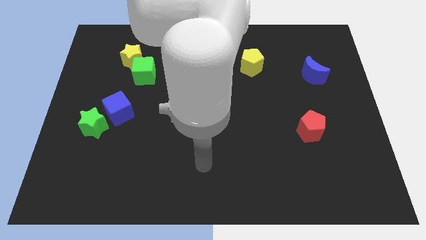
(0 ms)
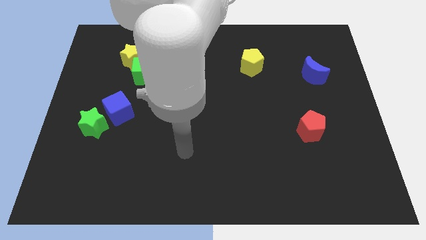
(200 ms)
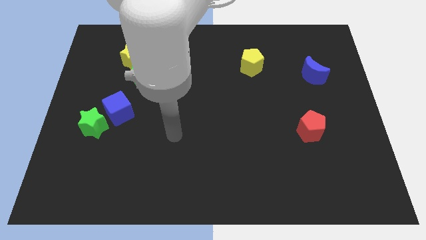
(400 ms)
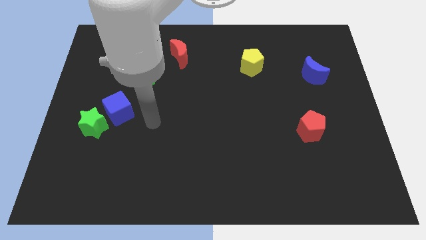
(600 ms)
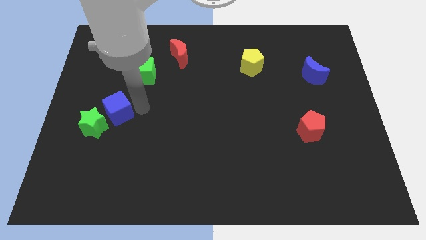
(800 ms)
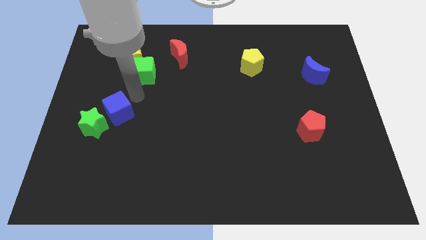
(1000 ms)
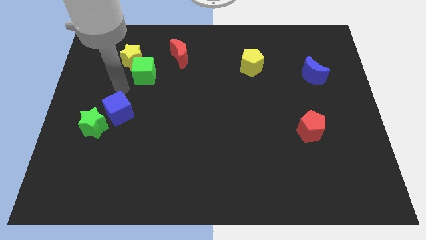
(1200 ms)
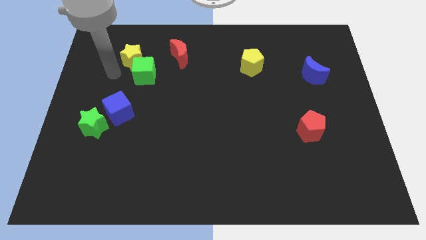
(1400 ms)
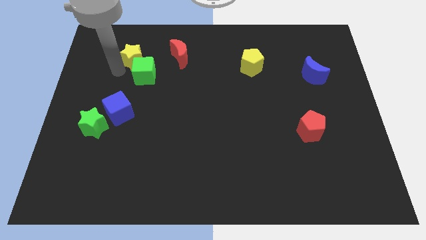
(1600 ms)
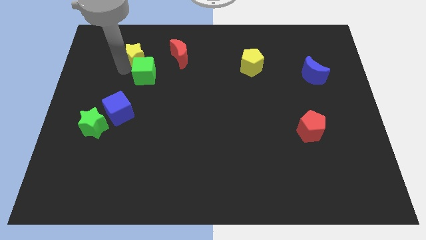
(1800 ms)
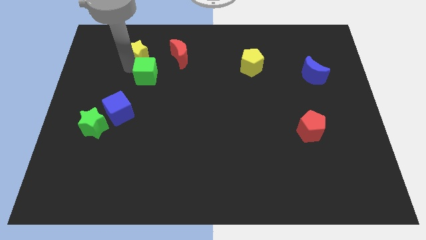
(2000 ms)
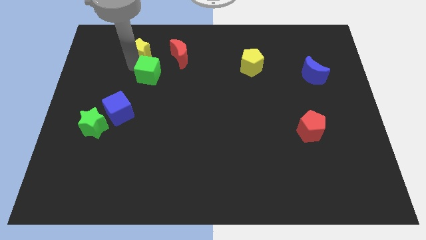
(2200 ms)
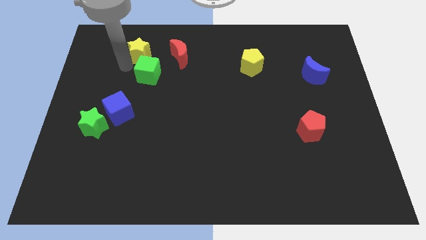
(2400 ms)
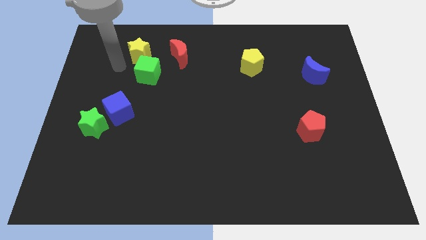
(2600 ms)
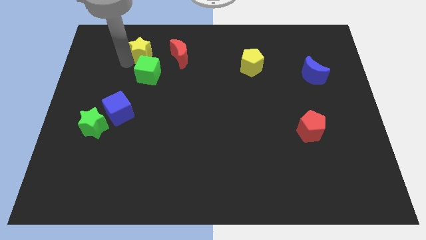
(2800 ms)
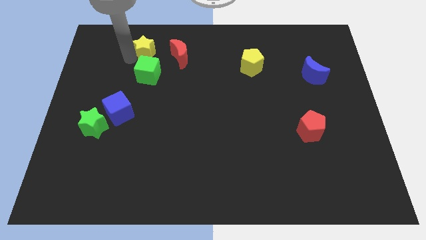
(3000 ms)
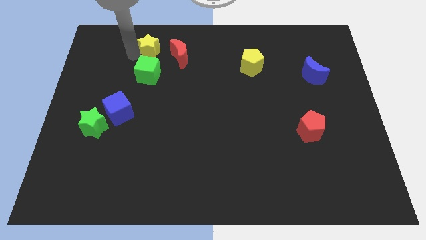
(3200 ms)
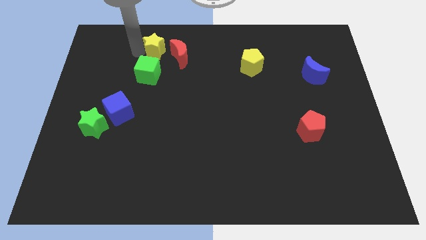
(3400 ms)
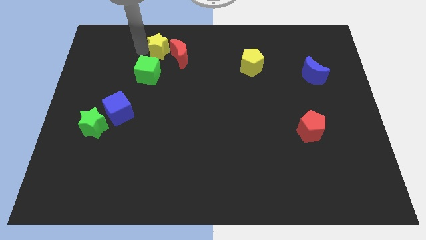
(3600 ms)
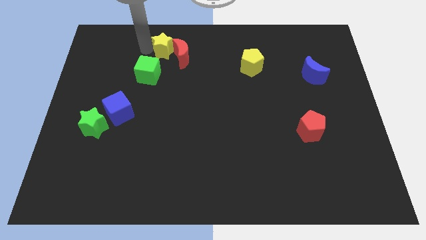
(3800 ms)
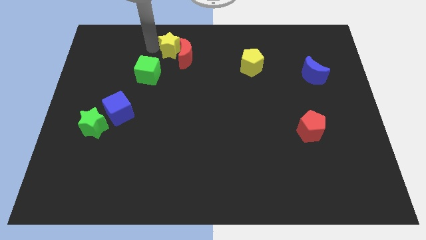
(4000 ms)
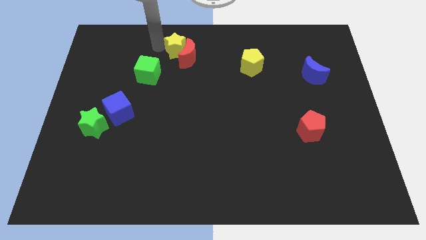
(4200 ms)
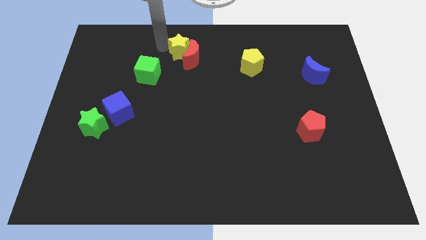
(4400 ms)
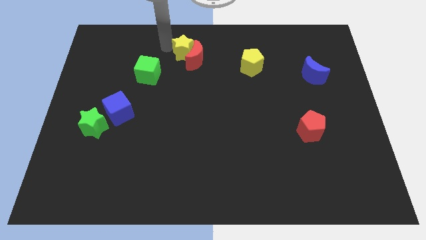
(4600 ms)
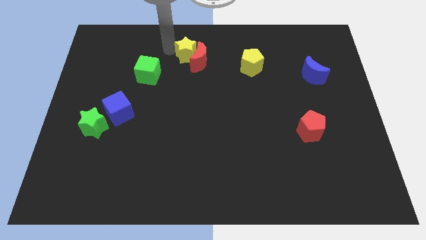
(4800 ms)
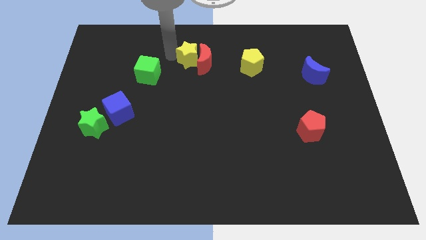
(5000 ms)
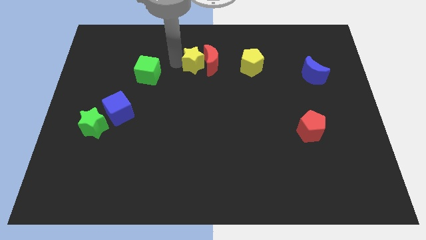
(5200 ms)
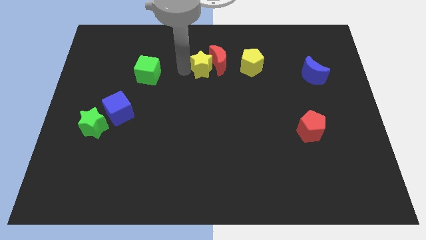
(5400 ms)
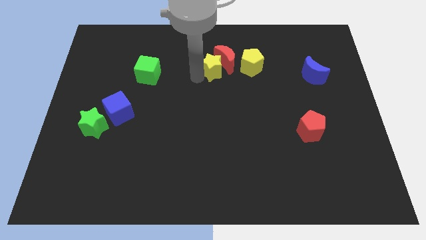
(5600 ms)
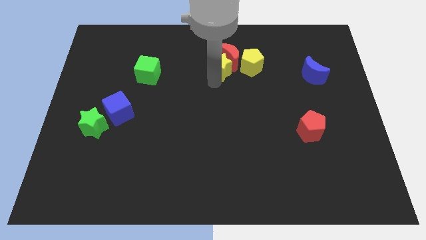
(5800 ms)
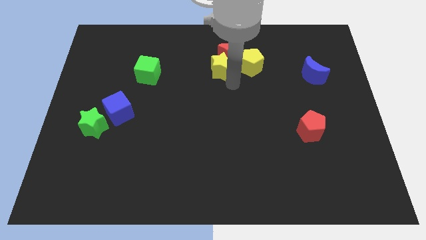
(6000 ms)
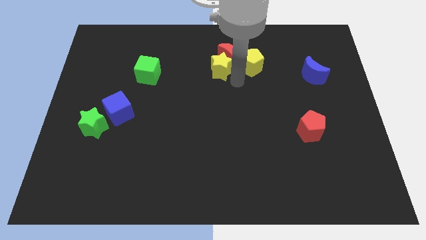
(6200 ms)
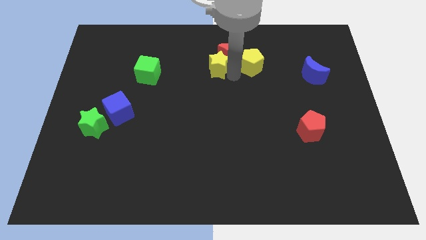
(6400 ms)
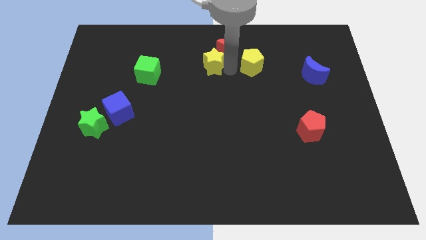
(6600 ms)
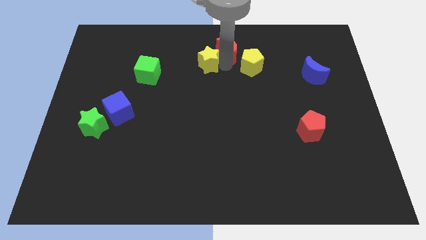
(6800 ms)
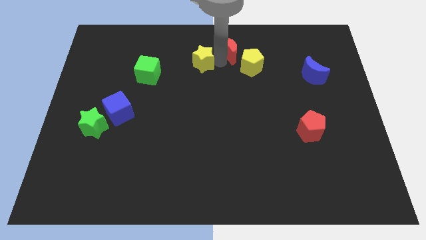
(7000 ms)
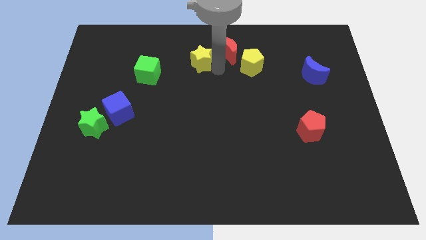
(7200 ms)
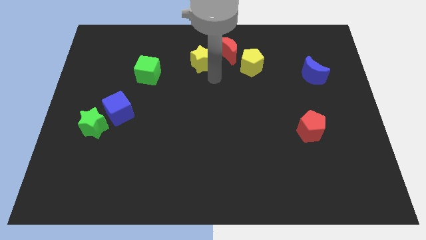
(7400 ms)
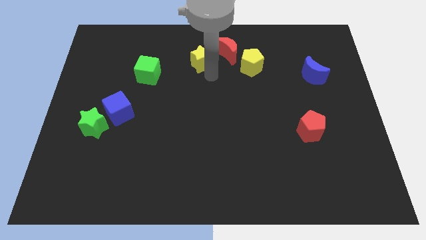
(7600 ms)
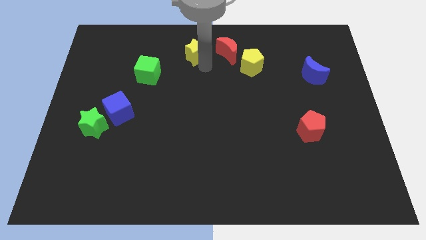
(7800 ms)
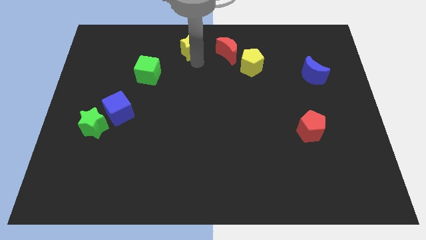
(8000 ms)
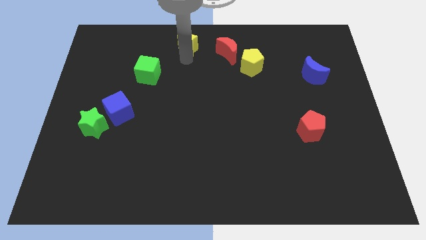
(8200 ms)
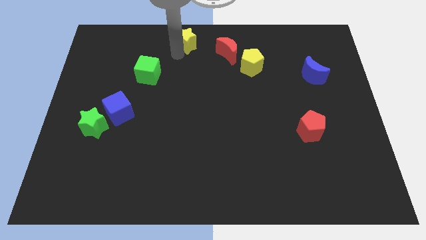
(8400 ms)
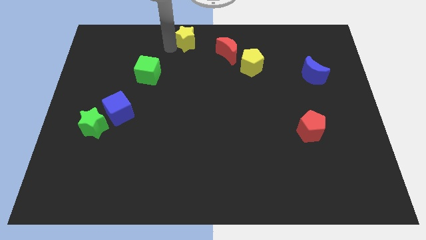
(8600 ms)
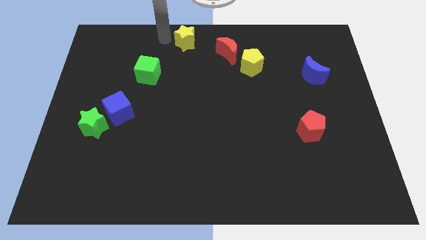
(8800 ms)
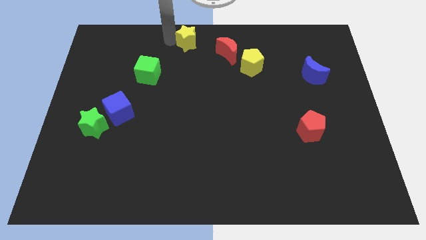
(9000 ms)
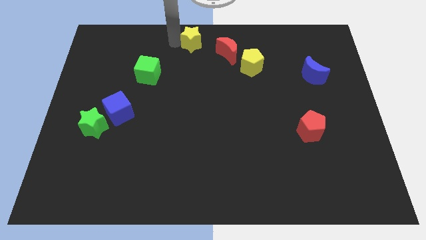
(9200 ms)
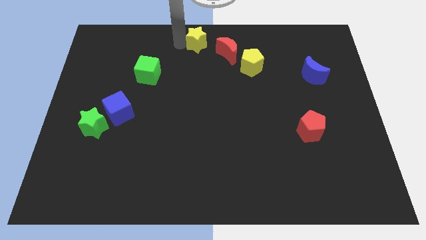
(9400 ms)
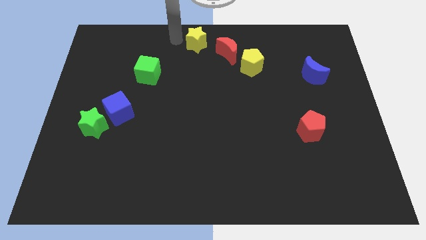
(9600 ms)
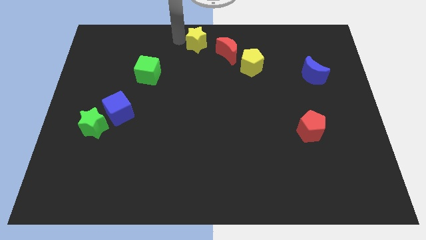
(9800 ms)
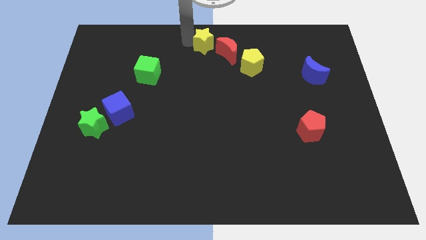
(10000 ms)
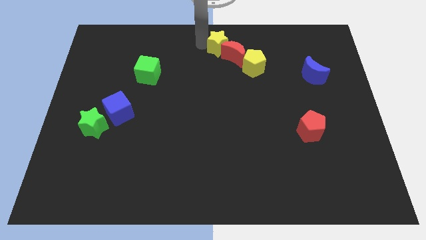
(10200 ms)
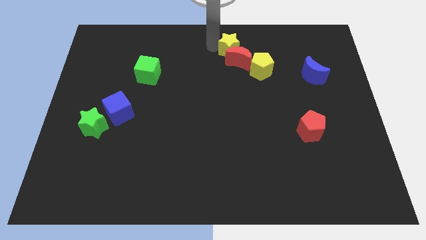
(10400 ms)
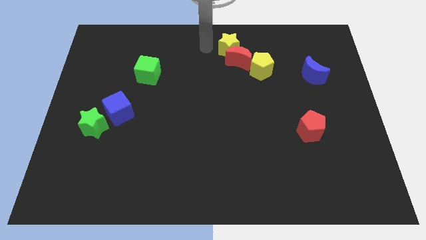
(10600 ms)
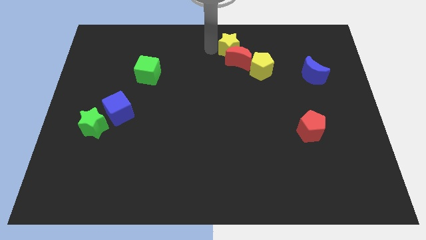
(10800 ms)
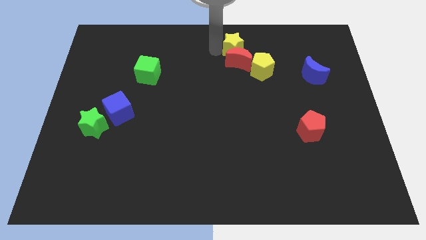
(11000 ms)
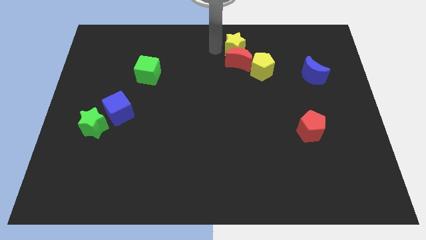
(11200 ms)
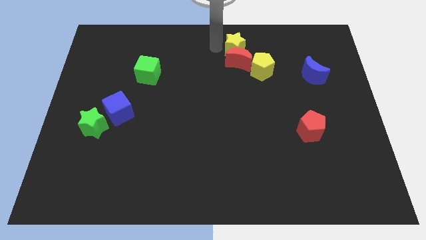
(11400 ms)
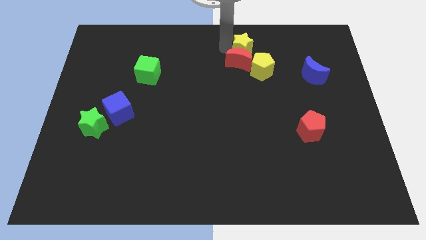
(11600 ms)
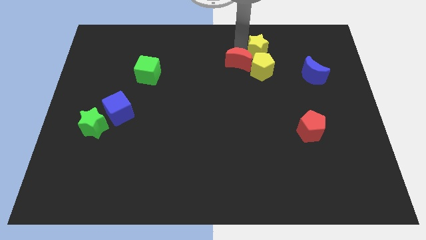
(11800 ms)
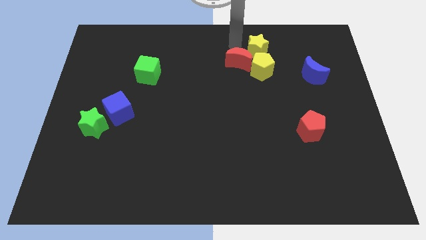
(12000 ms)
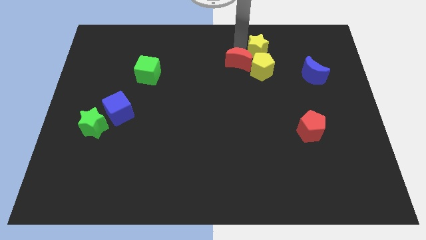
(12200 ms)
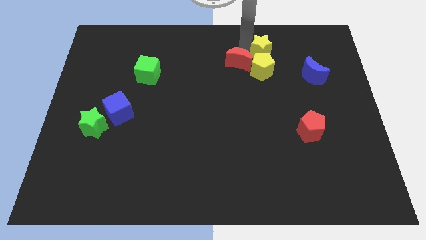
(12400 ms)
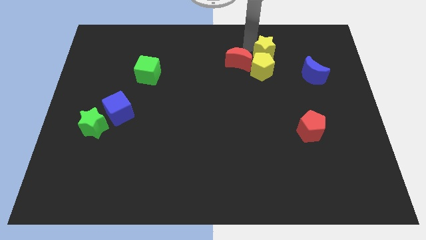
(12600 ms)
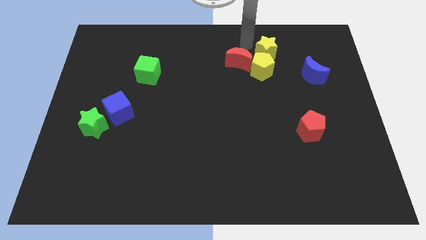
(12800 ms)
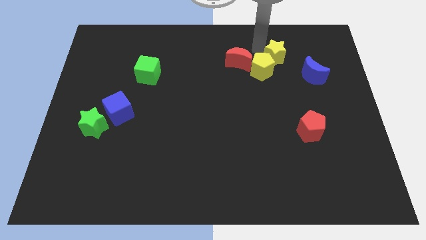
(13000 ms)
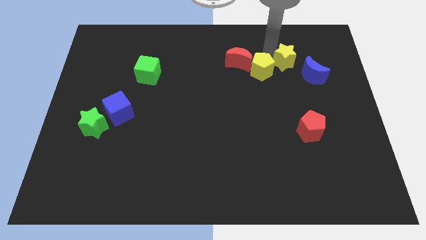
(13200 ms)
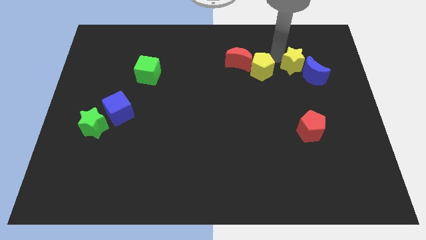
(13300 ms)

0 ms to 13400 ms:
move the yellow star close to the blue moon

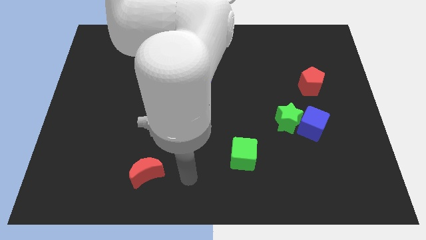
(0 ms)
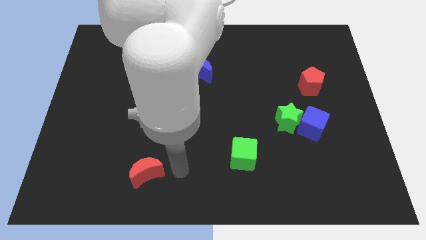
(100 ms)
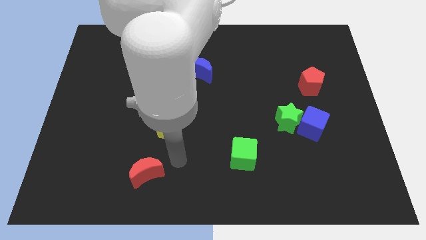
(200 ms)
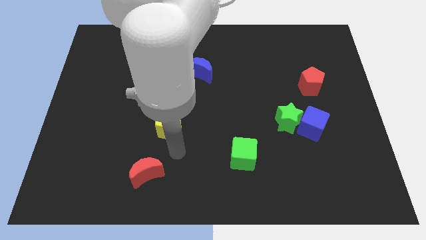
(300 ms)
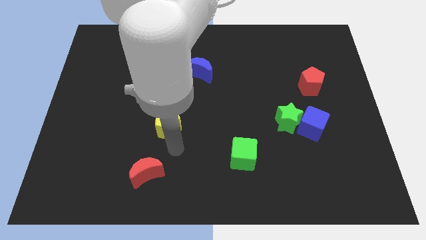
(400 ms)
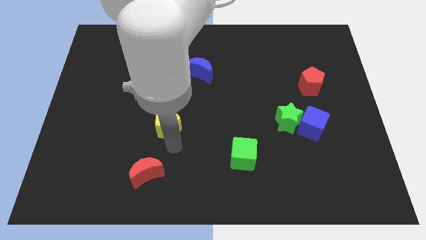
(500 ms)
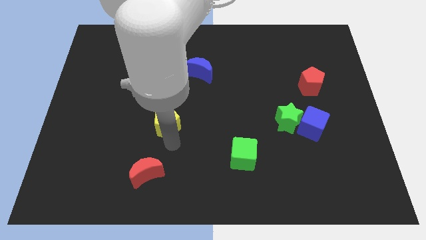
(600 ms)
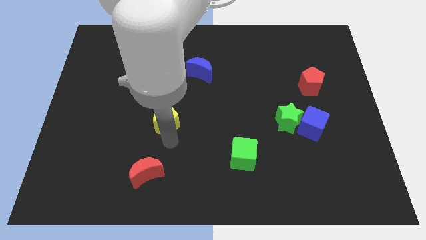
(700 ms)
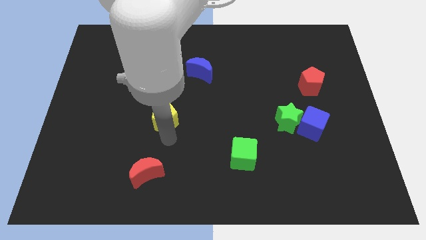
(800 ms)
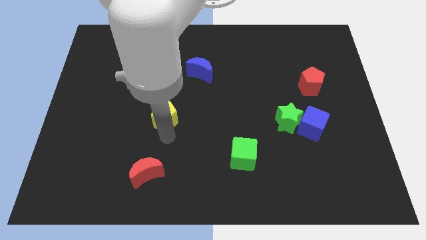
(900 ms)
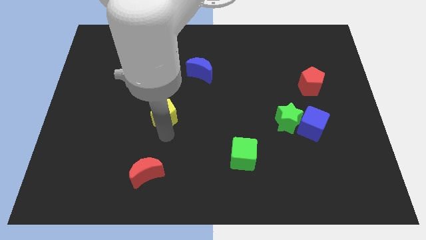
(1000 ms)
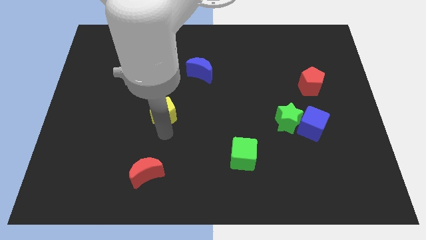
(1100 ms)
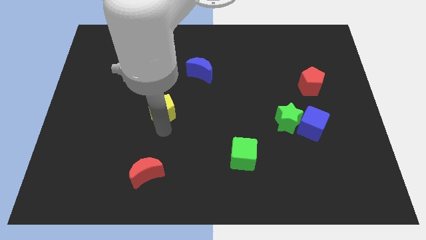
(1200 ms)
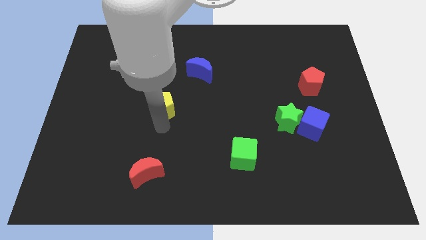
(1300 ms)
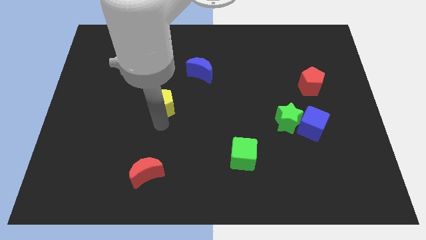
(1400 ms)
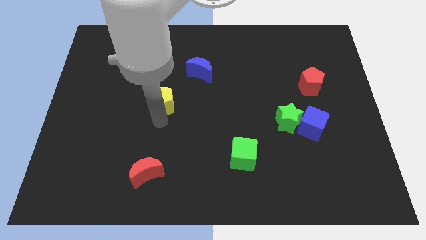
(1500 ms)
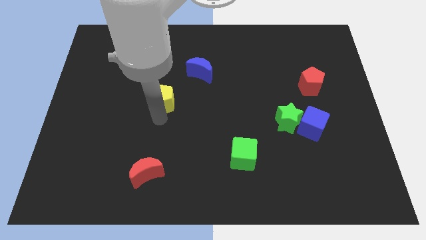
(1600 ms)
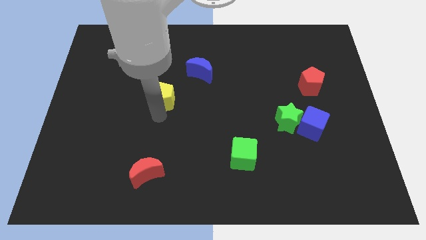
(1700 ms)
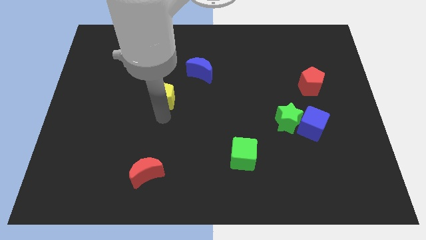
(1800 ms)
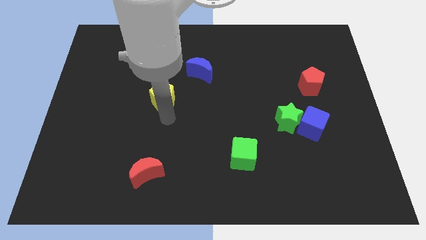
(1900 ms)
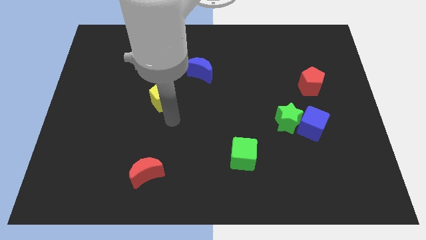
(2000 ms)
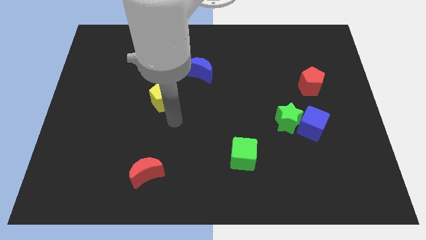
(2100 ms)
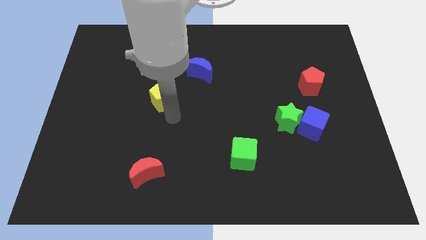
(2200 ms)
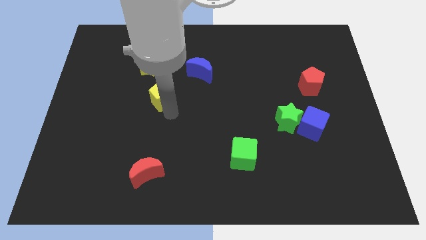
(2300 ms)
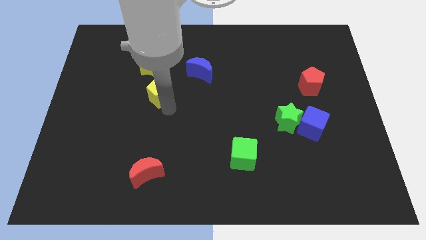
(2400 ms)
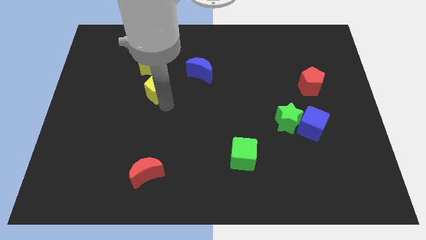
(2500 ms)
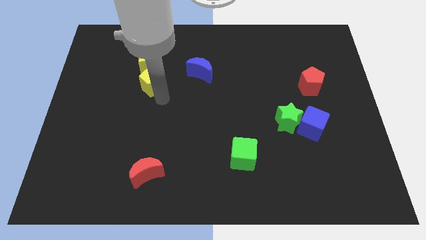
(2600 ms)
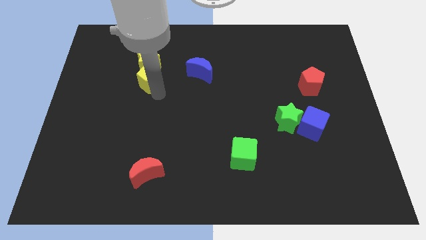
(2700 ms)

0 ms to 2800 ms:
push the yellow pentagon next to the yellow star
